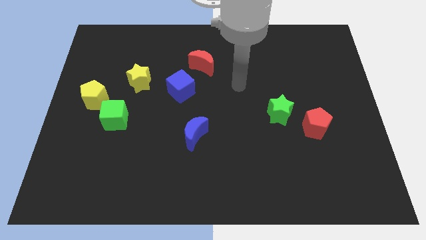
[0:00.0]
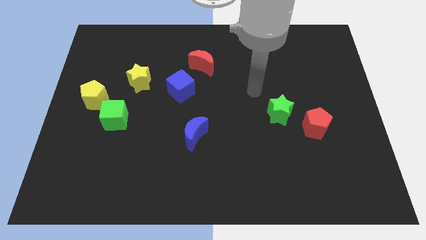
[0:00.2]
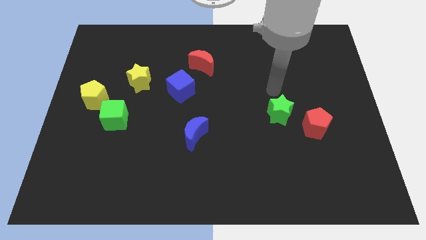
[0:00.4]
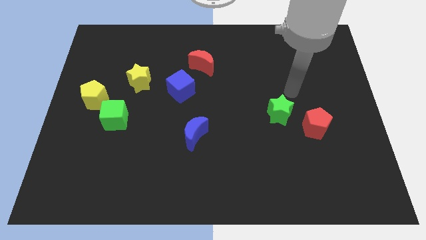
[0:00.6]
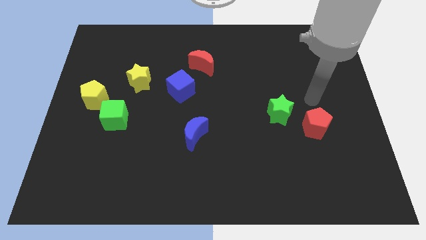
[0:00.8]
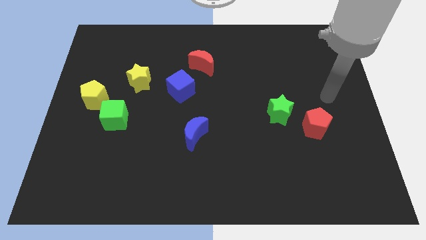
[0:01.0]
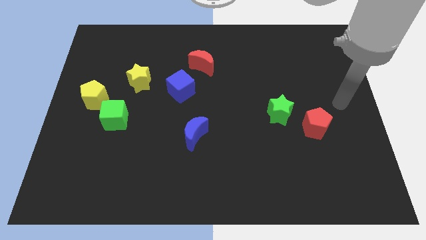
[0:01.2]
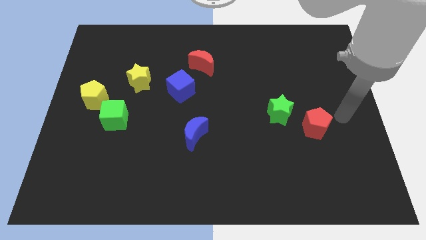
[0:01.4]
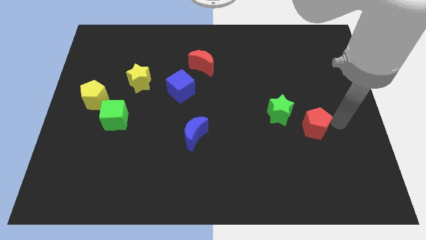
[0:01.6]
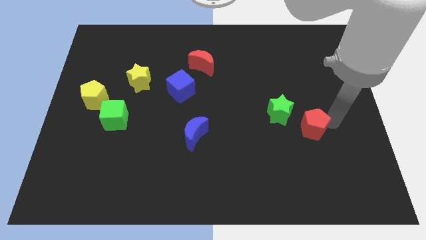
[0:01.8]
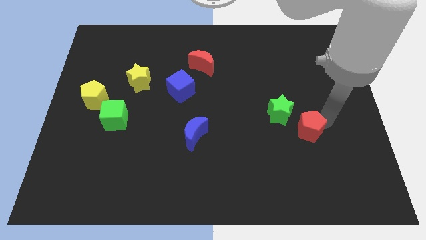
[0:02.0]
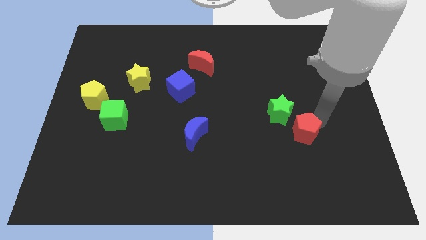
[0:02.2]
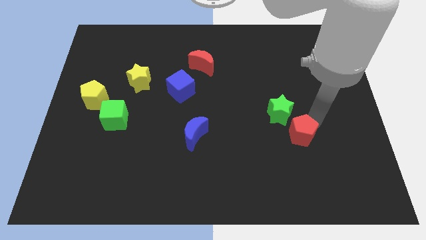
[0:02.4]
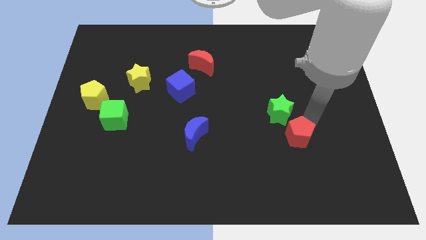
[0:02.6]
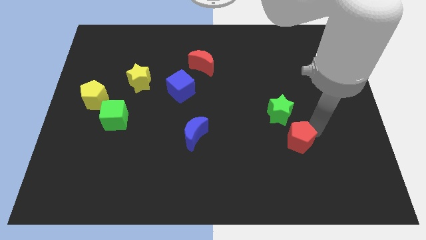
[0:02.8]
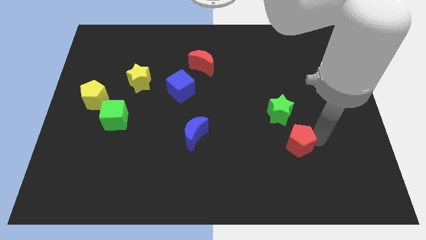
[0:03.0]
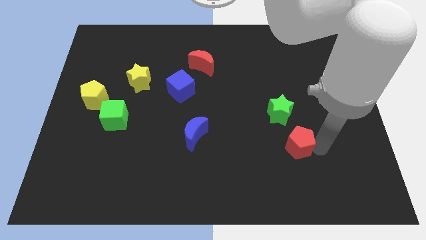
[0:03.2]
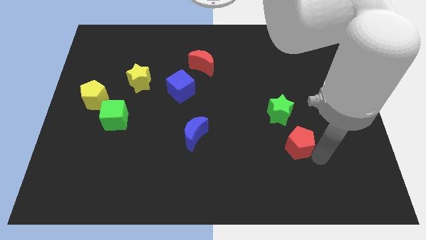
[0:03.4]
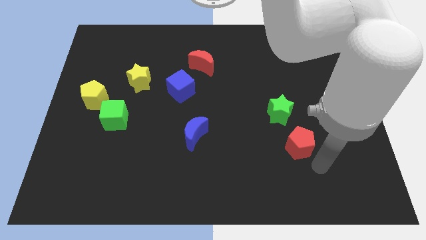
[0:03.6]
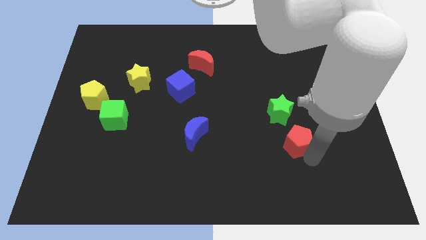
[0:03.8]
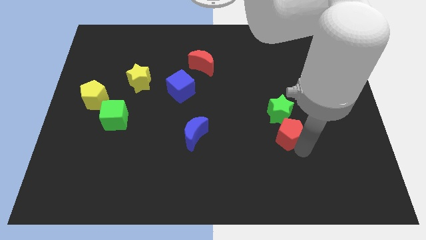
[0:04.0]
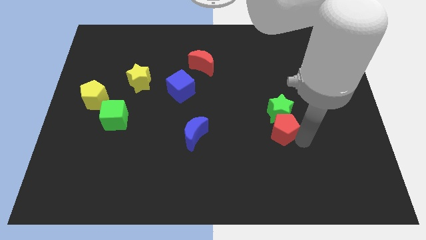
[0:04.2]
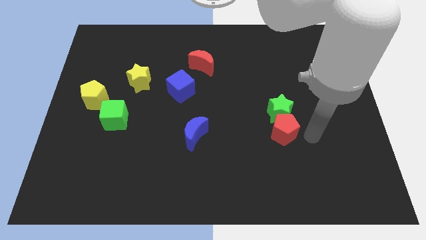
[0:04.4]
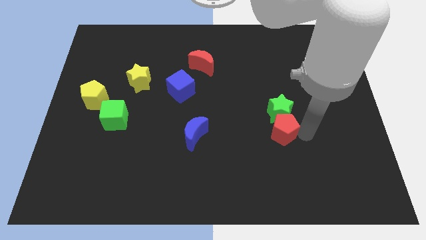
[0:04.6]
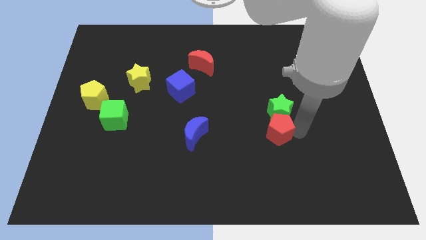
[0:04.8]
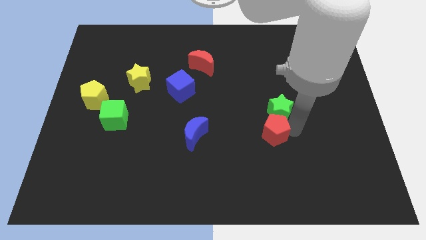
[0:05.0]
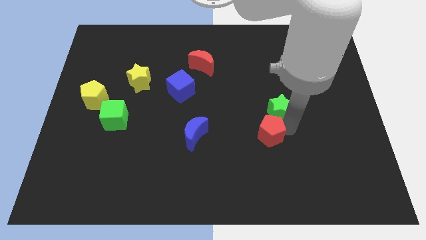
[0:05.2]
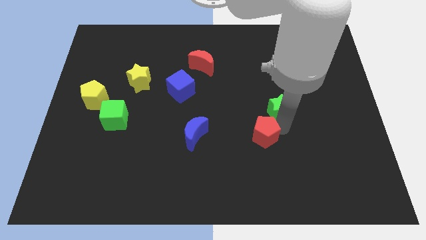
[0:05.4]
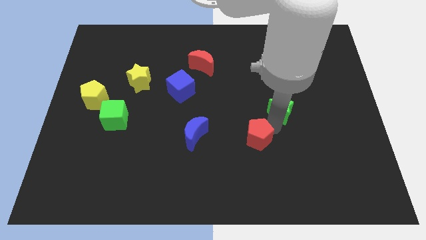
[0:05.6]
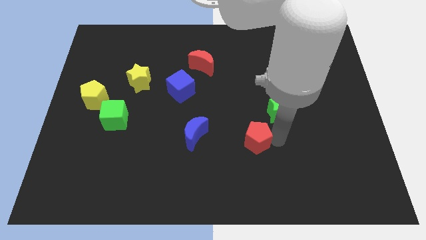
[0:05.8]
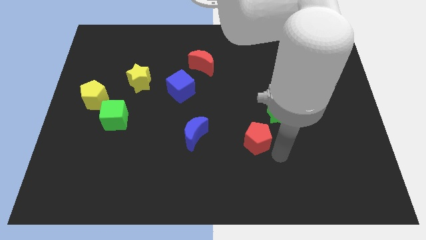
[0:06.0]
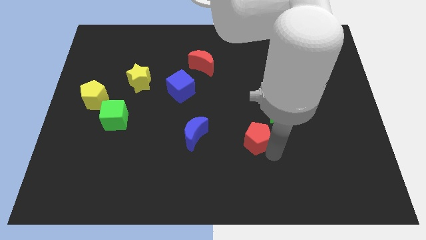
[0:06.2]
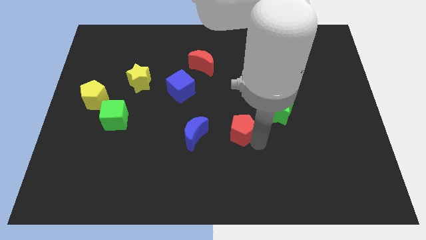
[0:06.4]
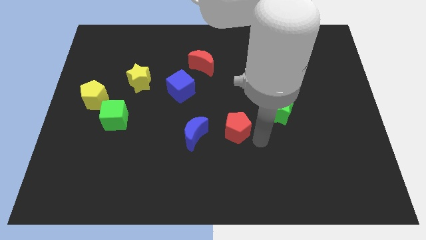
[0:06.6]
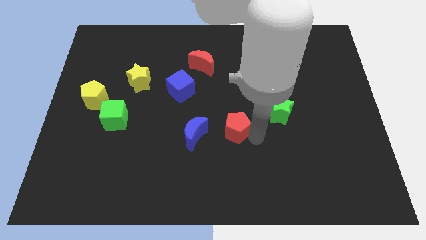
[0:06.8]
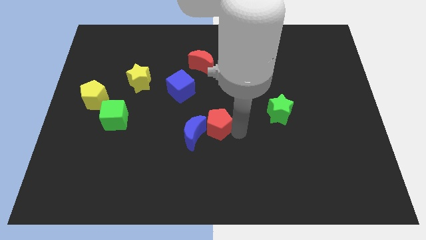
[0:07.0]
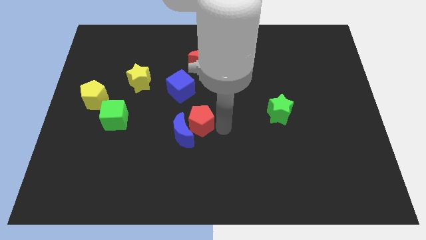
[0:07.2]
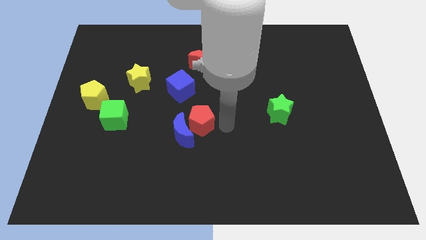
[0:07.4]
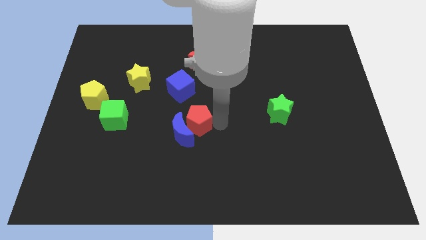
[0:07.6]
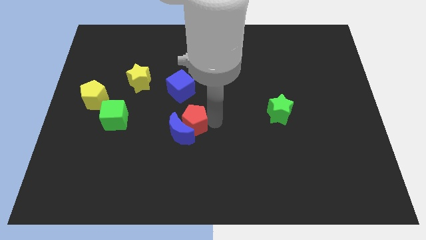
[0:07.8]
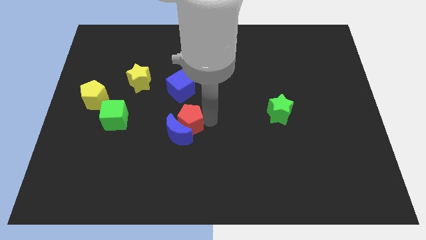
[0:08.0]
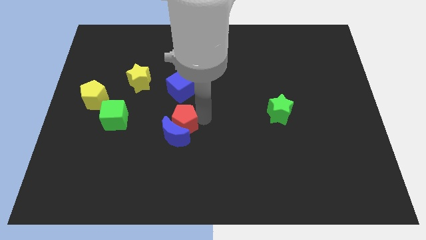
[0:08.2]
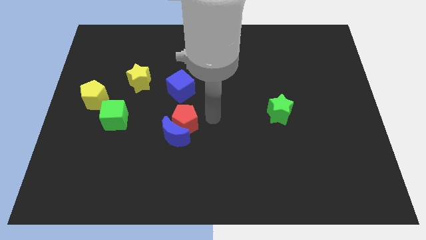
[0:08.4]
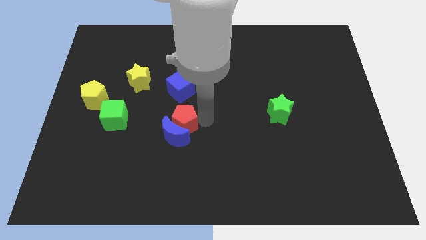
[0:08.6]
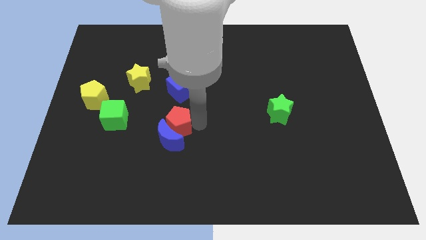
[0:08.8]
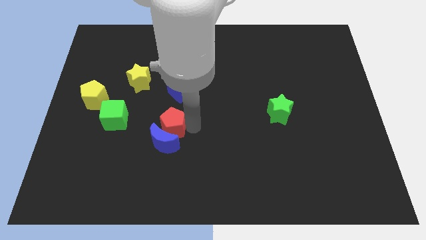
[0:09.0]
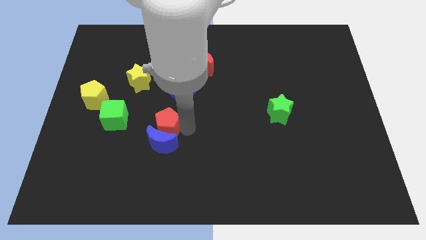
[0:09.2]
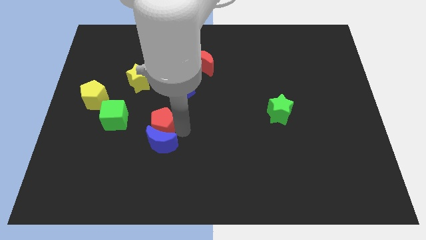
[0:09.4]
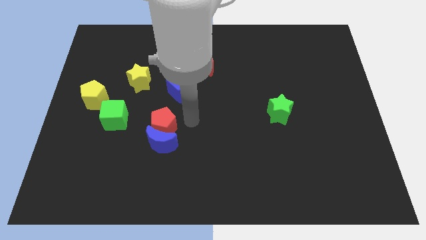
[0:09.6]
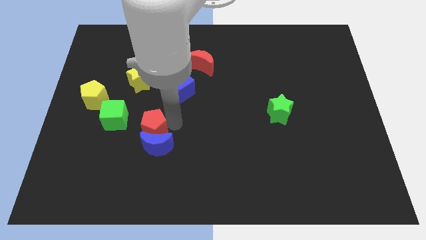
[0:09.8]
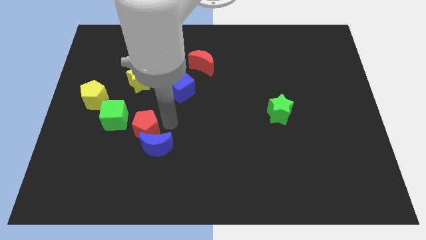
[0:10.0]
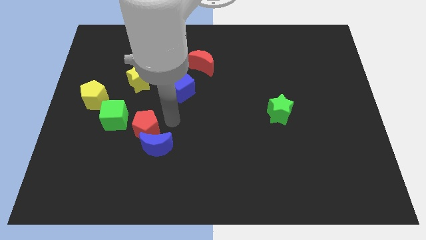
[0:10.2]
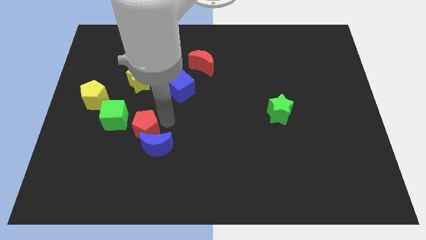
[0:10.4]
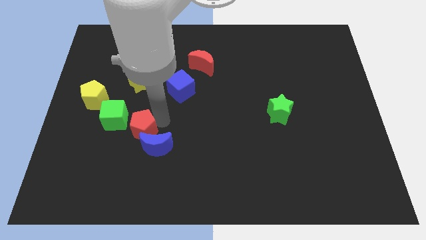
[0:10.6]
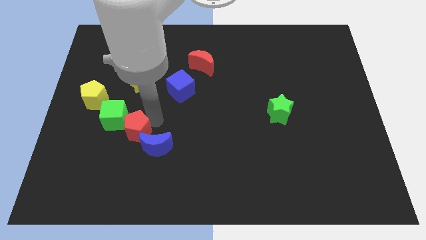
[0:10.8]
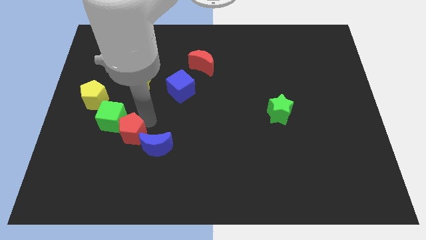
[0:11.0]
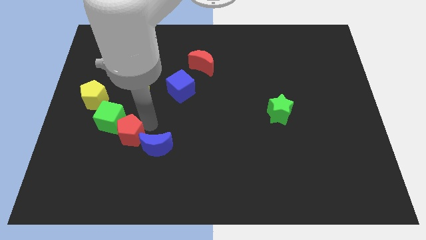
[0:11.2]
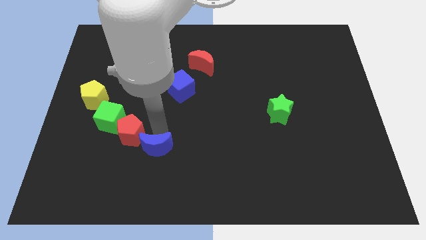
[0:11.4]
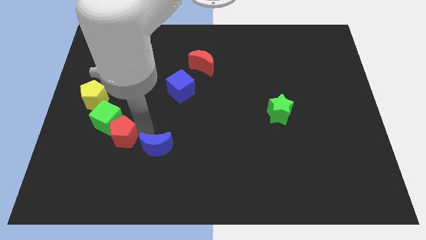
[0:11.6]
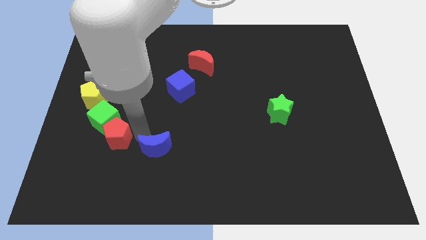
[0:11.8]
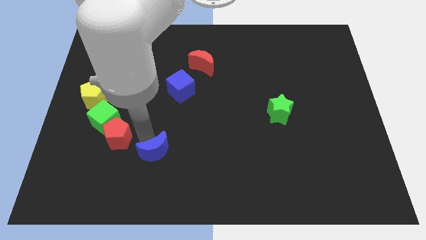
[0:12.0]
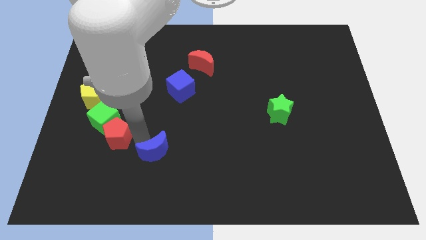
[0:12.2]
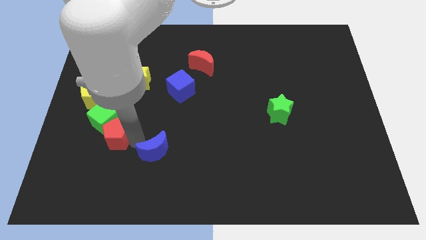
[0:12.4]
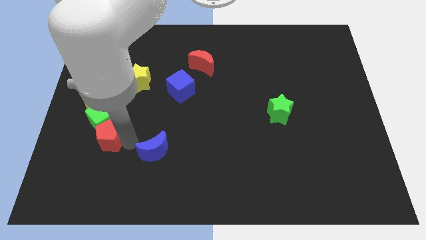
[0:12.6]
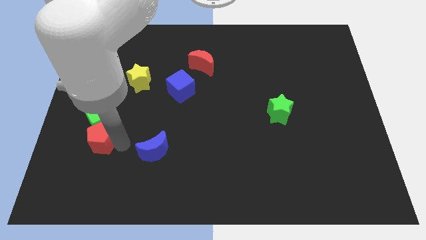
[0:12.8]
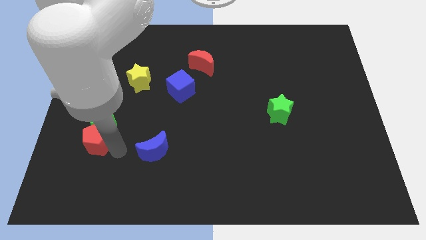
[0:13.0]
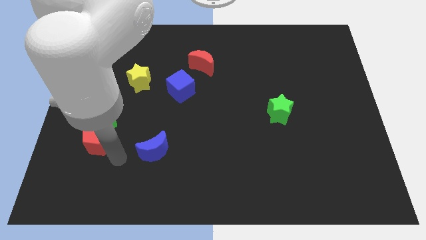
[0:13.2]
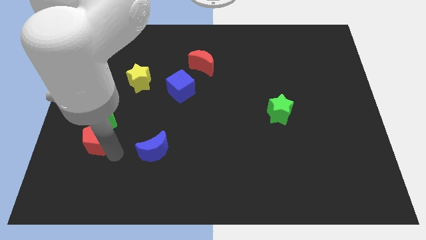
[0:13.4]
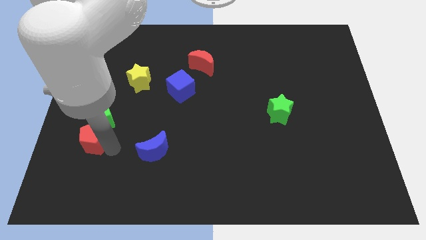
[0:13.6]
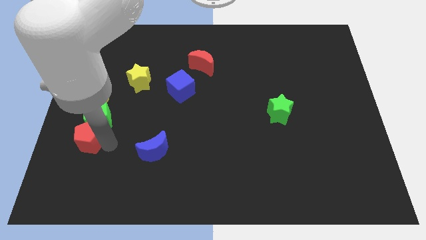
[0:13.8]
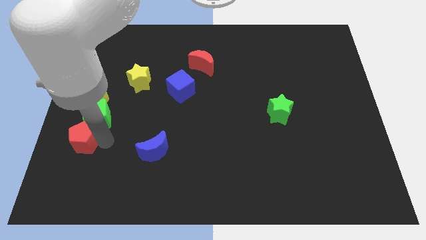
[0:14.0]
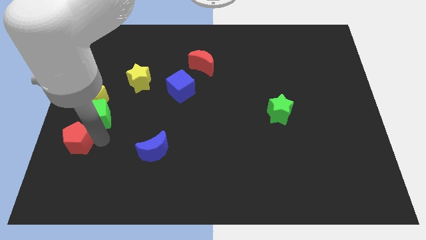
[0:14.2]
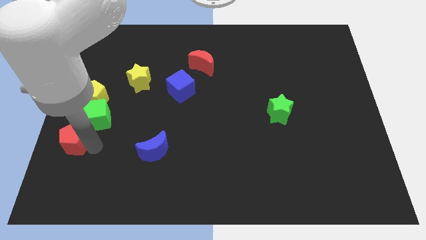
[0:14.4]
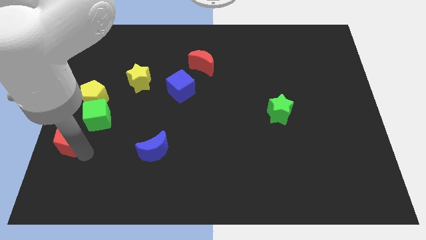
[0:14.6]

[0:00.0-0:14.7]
slide the red pentagon to the center left
